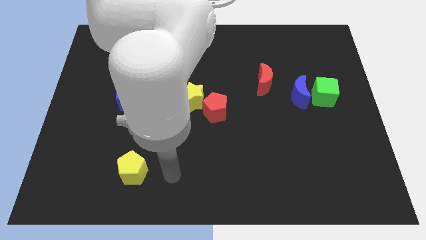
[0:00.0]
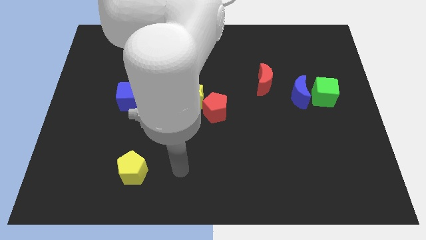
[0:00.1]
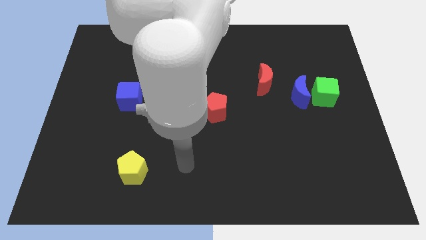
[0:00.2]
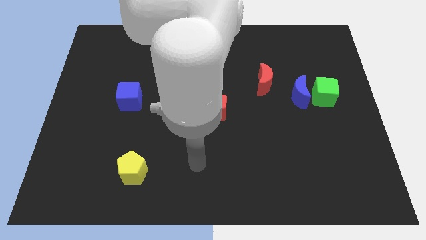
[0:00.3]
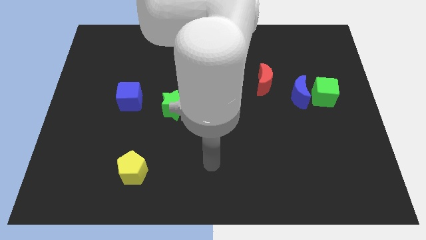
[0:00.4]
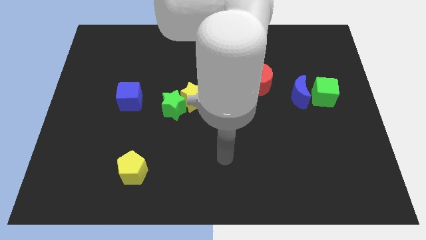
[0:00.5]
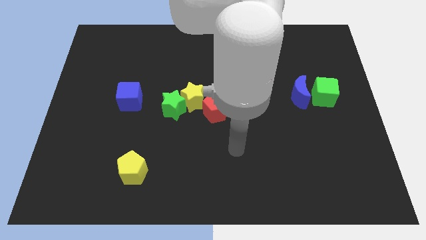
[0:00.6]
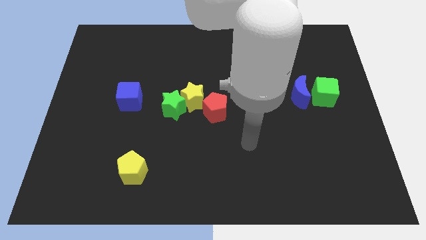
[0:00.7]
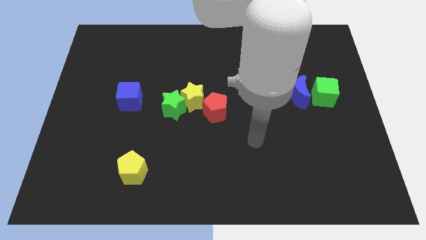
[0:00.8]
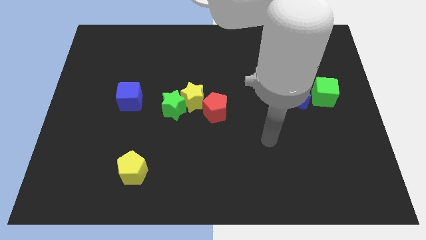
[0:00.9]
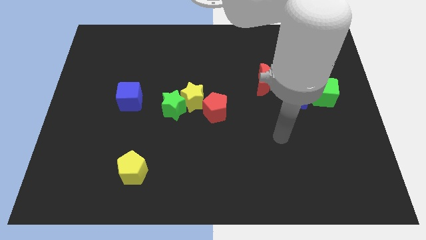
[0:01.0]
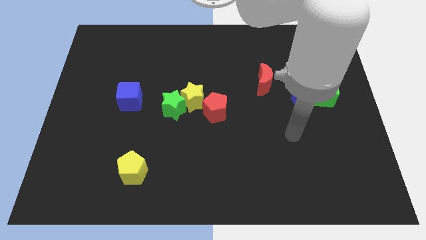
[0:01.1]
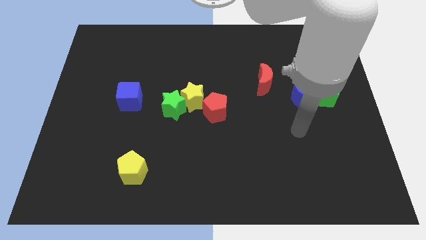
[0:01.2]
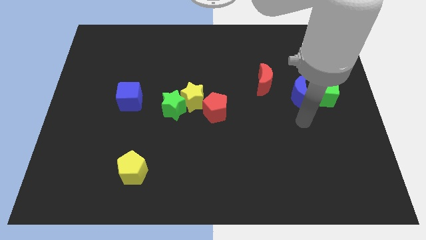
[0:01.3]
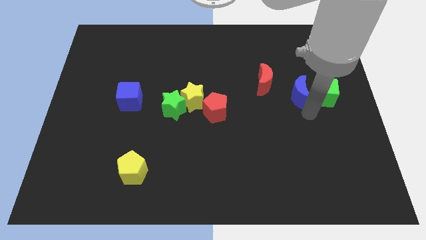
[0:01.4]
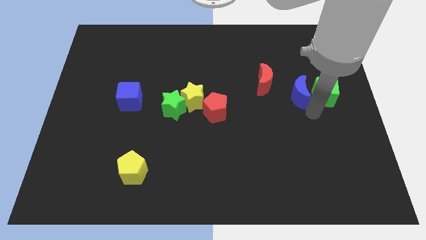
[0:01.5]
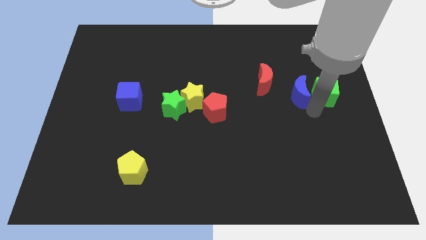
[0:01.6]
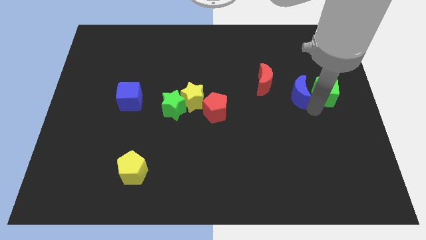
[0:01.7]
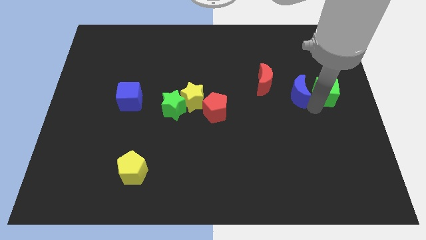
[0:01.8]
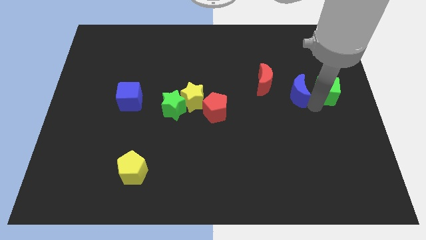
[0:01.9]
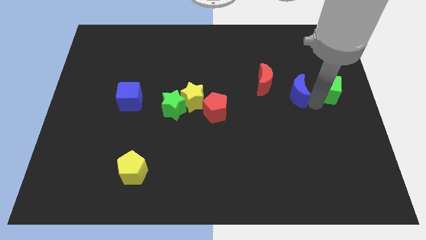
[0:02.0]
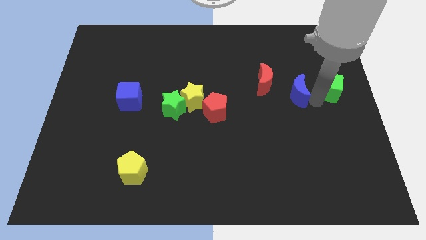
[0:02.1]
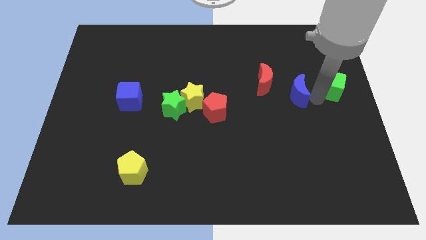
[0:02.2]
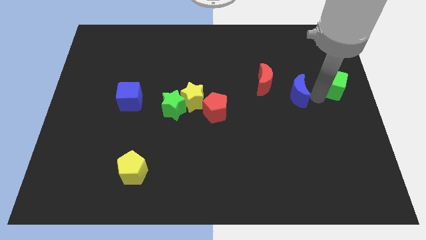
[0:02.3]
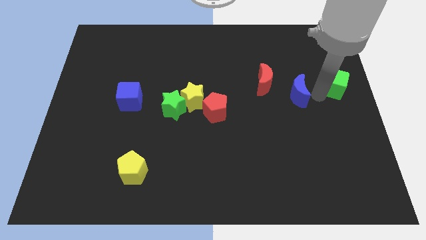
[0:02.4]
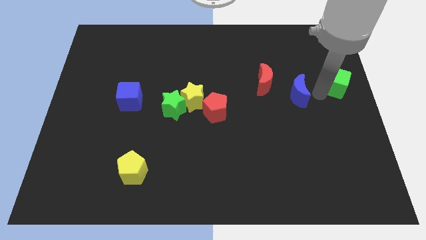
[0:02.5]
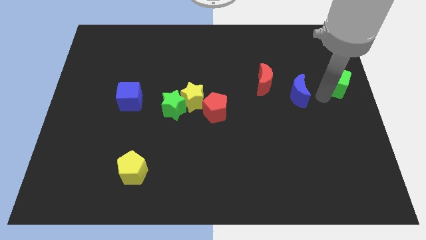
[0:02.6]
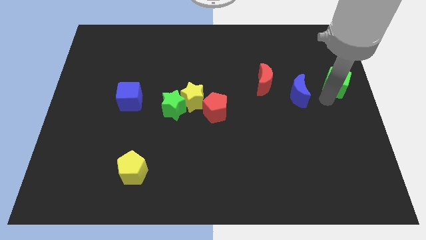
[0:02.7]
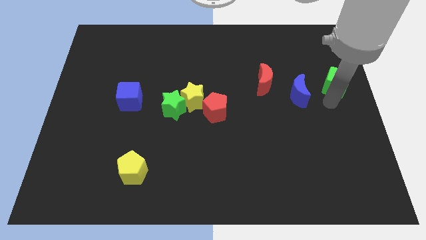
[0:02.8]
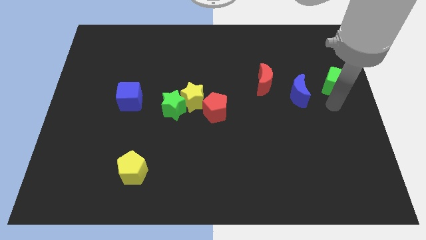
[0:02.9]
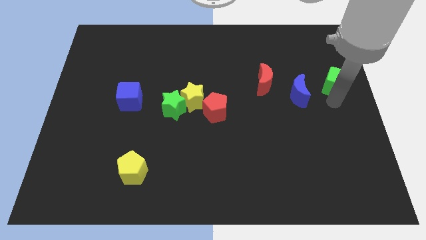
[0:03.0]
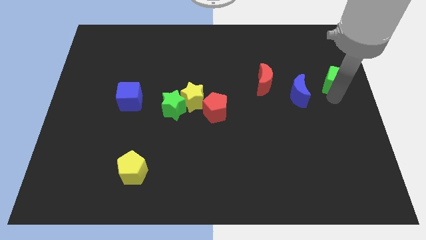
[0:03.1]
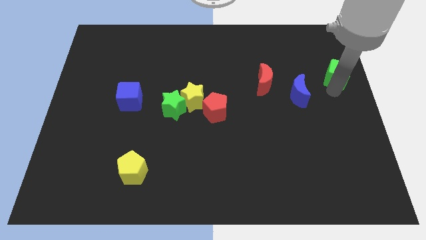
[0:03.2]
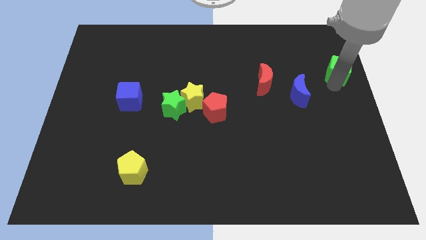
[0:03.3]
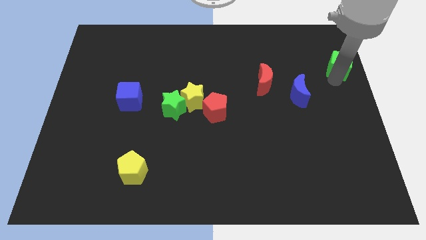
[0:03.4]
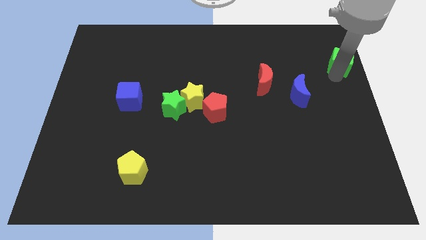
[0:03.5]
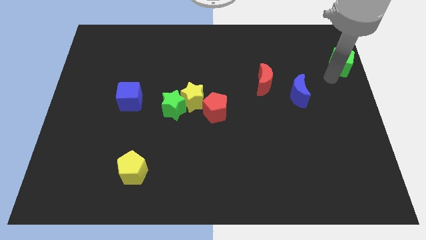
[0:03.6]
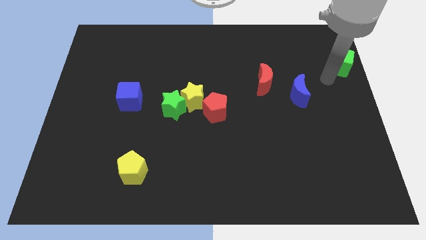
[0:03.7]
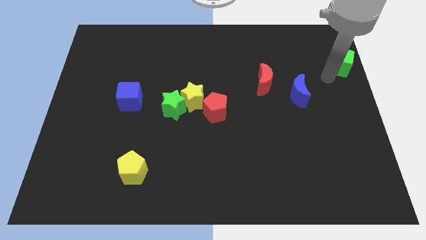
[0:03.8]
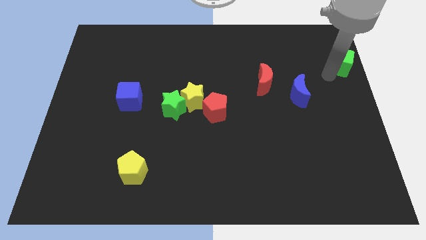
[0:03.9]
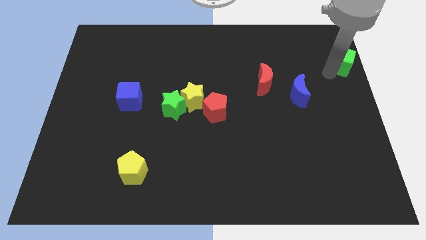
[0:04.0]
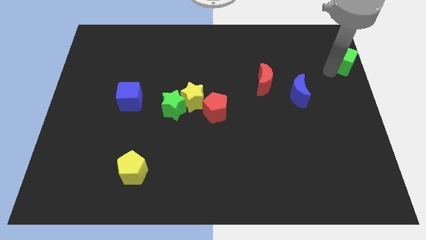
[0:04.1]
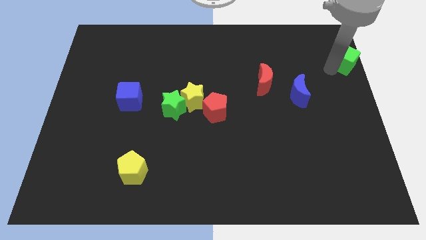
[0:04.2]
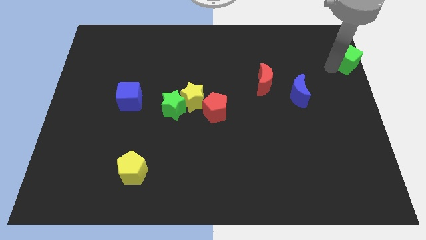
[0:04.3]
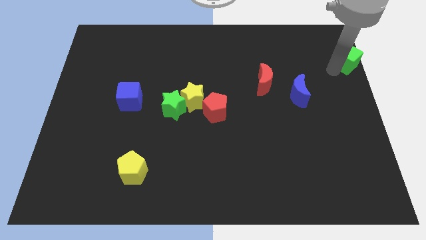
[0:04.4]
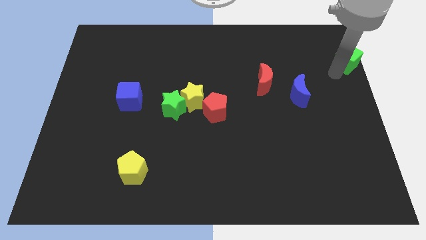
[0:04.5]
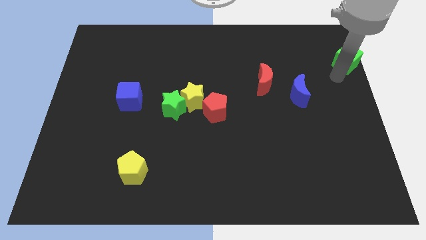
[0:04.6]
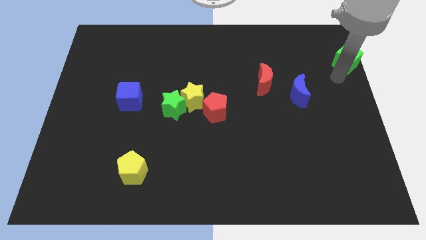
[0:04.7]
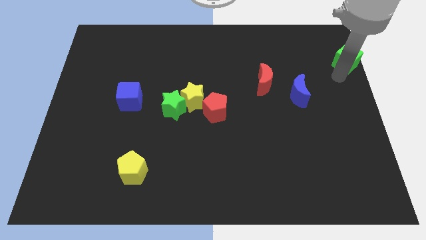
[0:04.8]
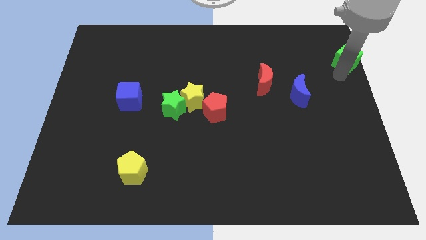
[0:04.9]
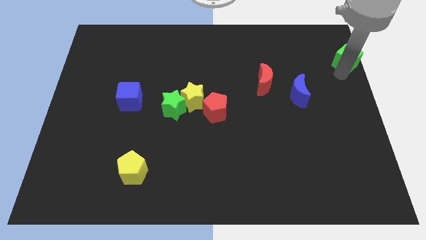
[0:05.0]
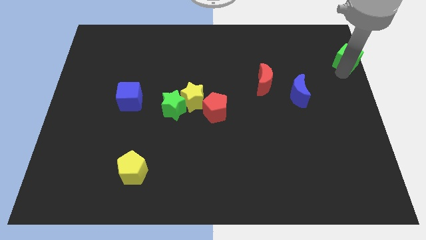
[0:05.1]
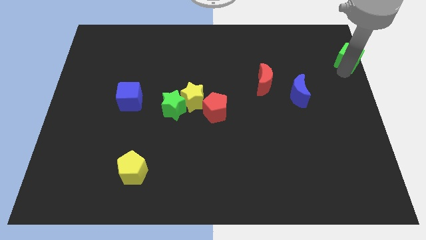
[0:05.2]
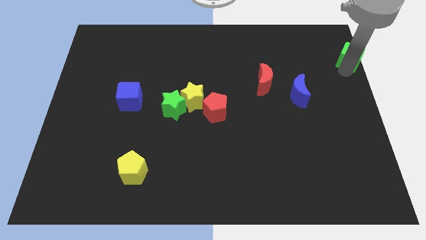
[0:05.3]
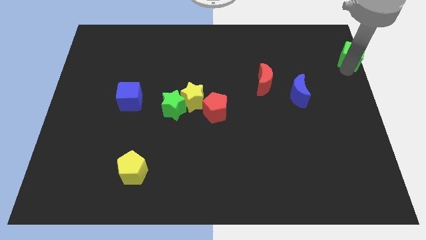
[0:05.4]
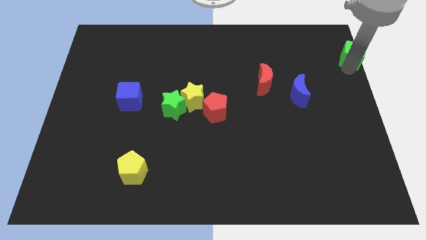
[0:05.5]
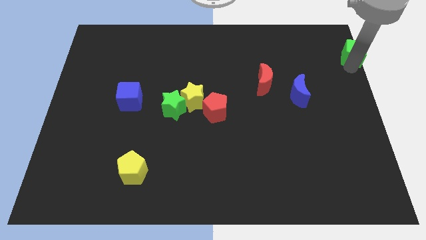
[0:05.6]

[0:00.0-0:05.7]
move the green cube to the upper right corner

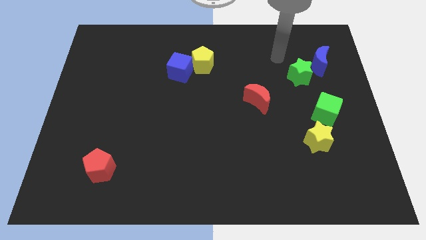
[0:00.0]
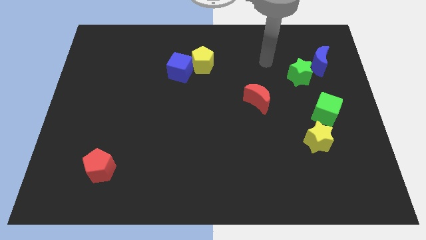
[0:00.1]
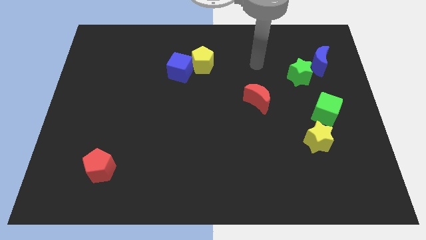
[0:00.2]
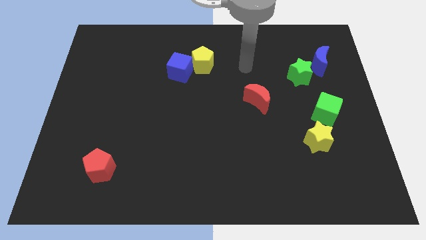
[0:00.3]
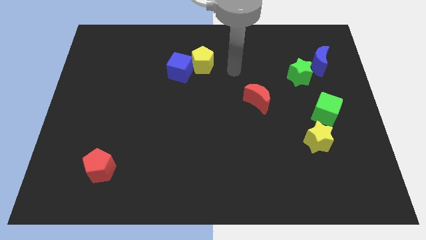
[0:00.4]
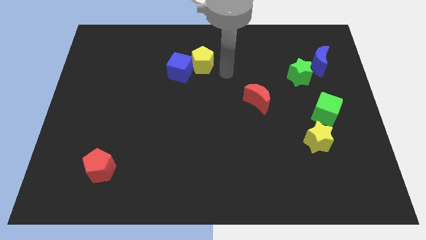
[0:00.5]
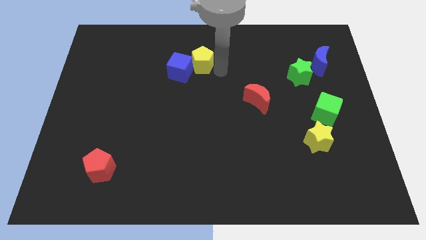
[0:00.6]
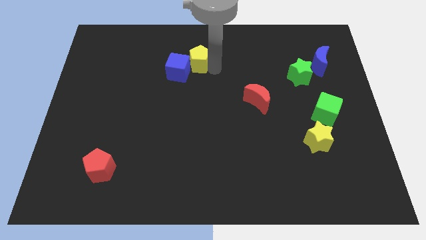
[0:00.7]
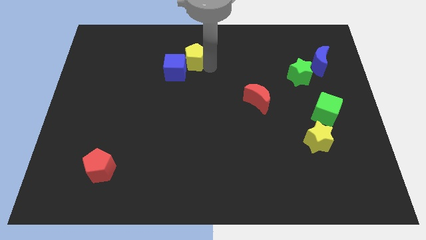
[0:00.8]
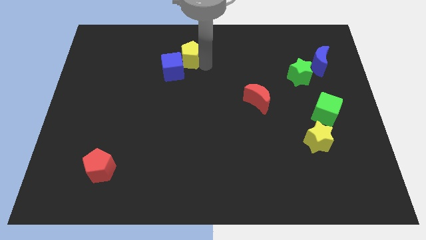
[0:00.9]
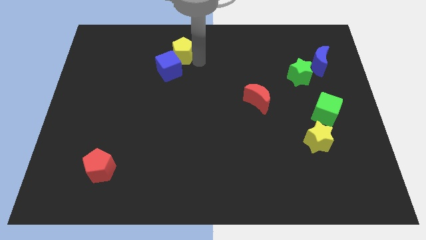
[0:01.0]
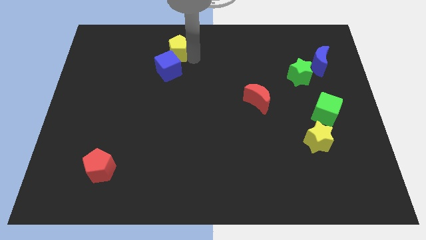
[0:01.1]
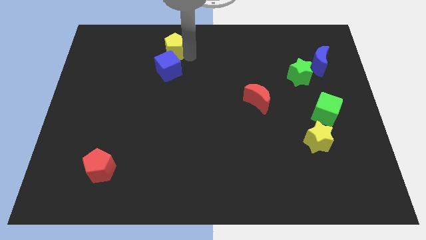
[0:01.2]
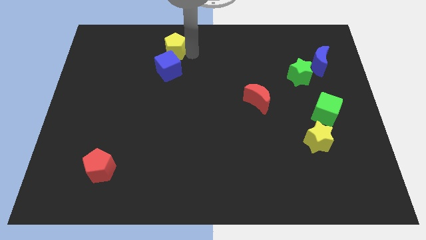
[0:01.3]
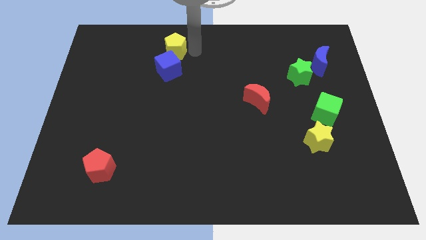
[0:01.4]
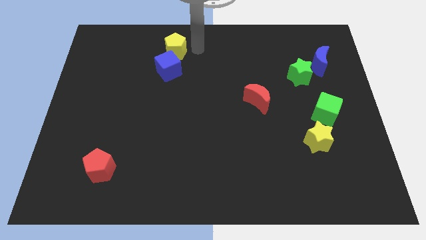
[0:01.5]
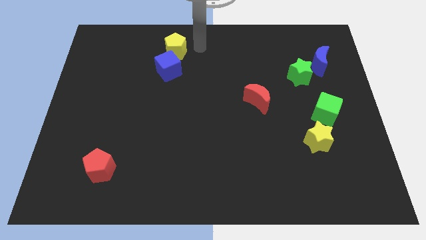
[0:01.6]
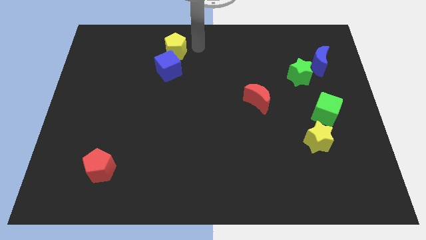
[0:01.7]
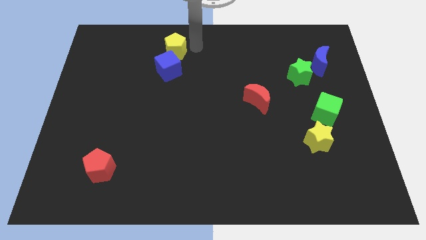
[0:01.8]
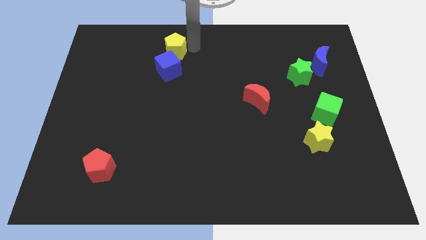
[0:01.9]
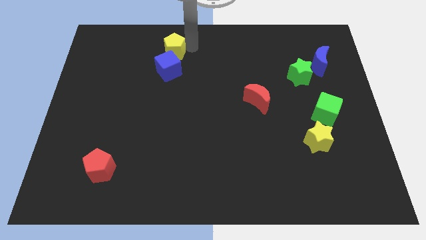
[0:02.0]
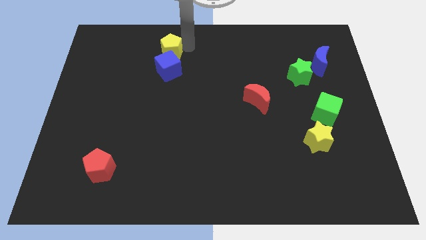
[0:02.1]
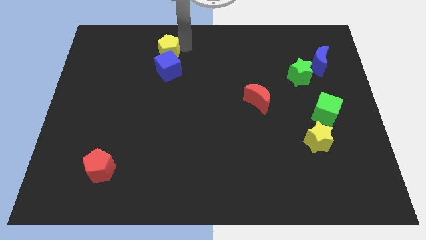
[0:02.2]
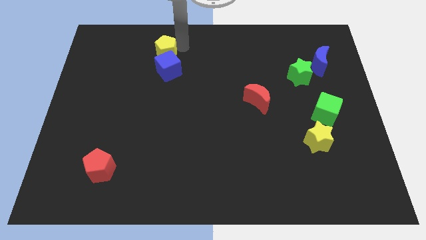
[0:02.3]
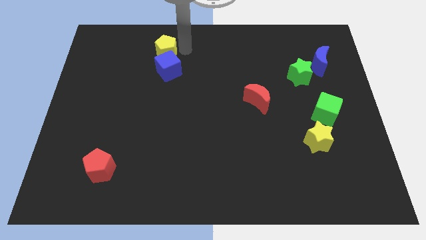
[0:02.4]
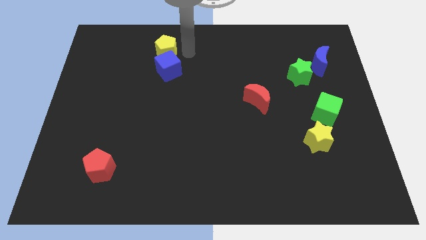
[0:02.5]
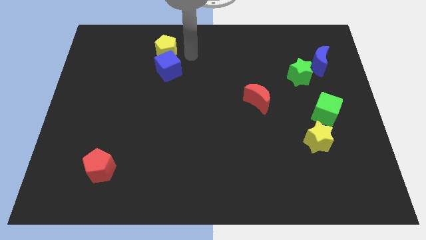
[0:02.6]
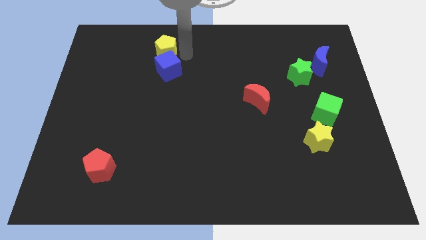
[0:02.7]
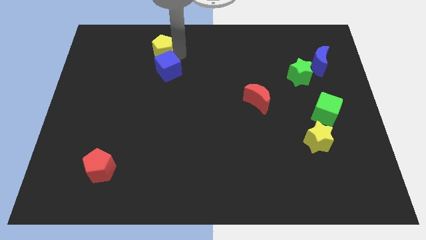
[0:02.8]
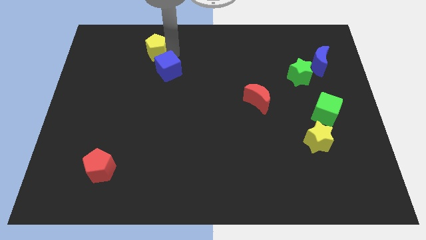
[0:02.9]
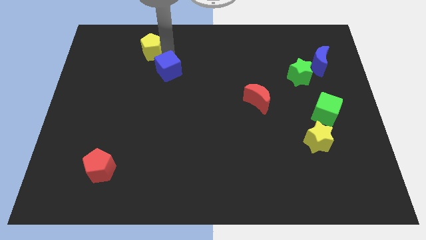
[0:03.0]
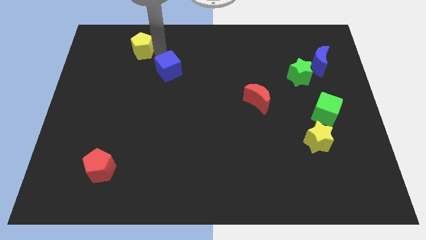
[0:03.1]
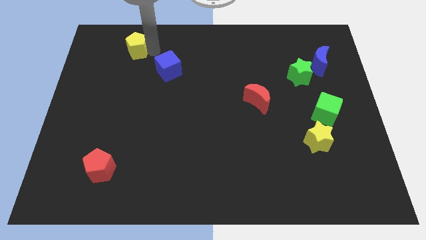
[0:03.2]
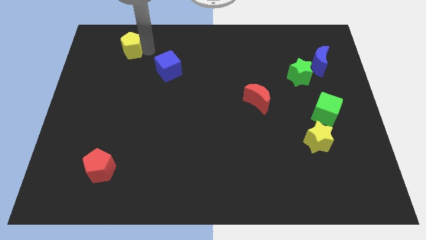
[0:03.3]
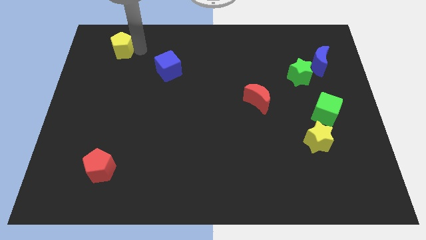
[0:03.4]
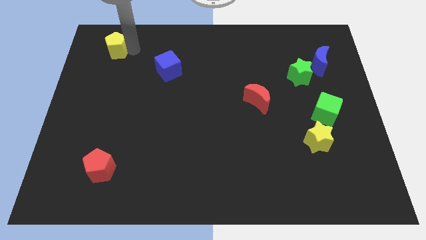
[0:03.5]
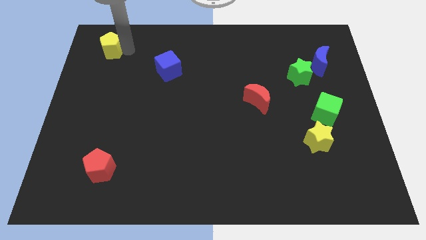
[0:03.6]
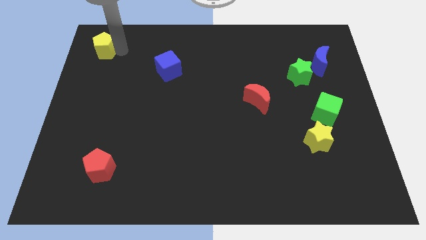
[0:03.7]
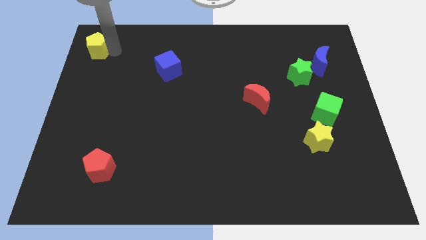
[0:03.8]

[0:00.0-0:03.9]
slide the yellow pentagon to the top left
